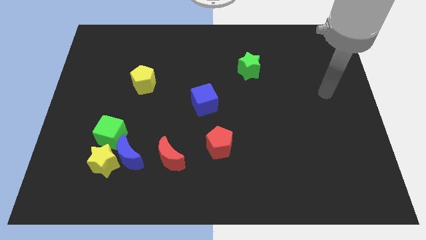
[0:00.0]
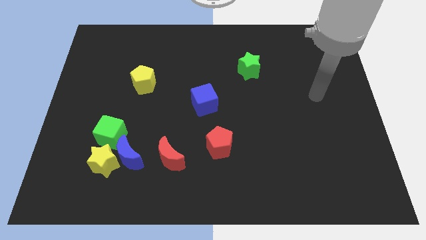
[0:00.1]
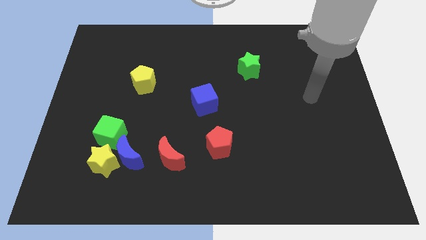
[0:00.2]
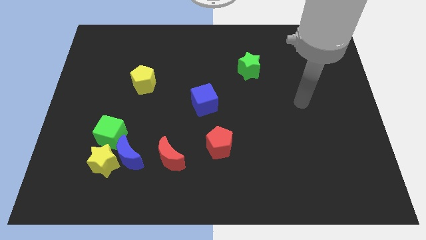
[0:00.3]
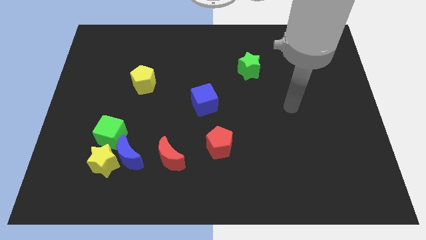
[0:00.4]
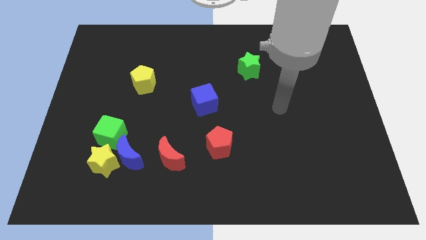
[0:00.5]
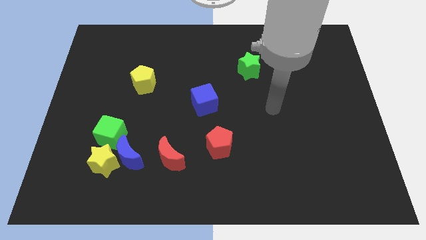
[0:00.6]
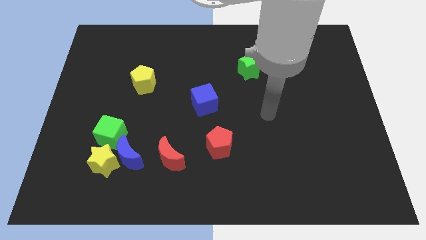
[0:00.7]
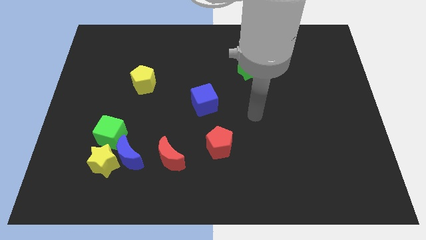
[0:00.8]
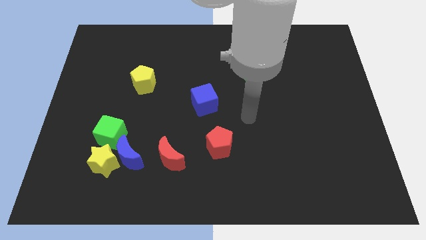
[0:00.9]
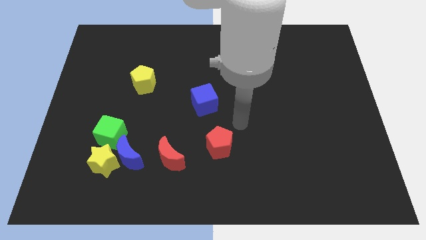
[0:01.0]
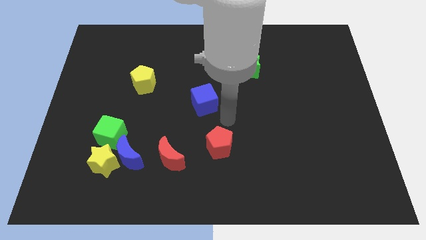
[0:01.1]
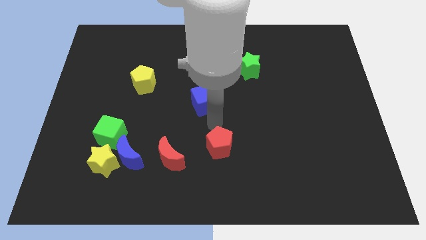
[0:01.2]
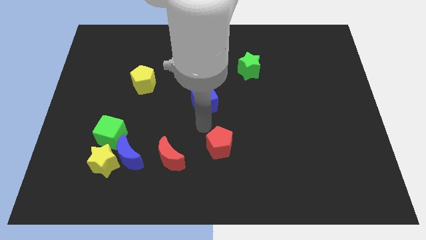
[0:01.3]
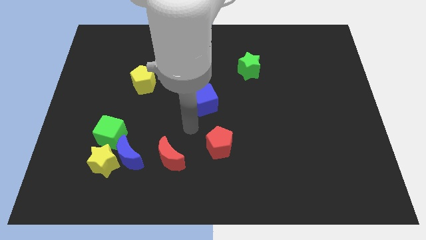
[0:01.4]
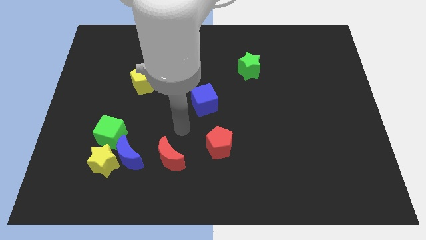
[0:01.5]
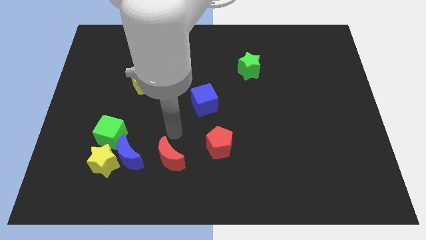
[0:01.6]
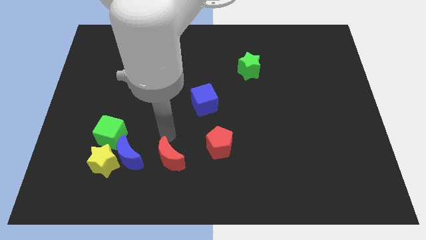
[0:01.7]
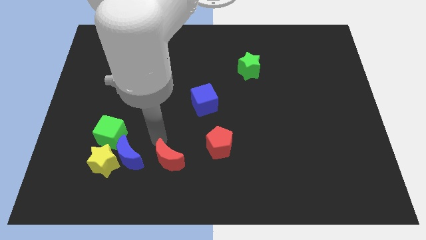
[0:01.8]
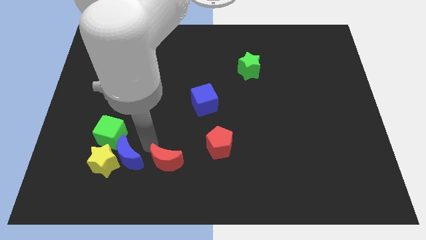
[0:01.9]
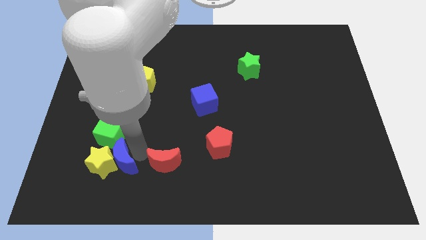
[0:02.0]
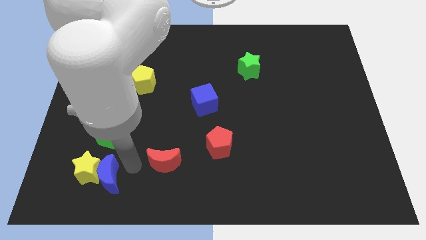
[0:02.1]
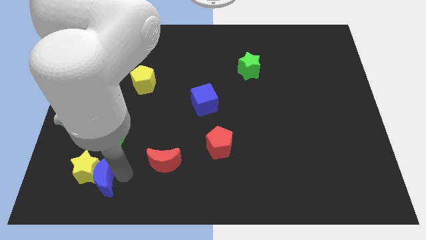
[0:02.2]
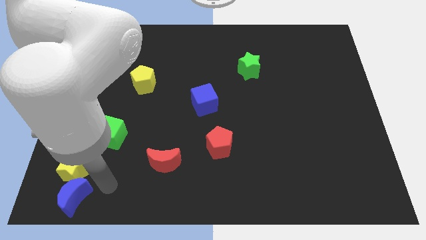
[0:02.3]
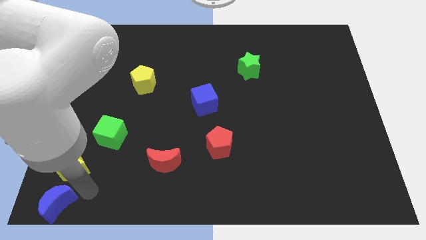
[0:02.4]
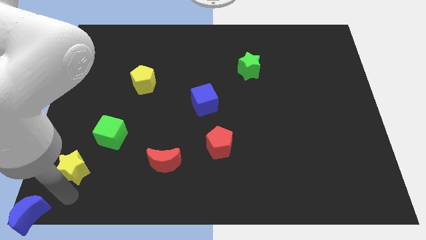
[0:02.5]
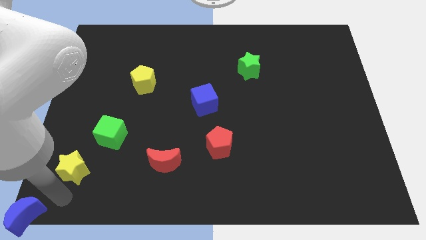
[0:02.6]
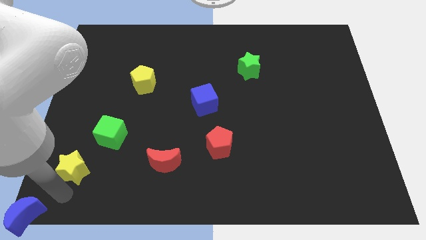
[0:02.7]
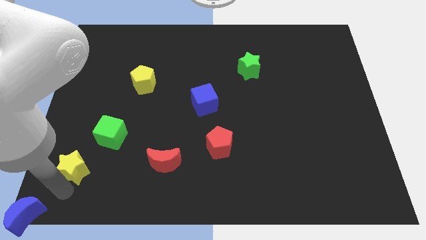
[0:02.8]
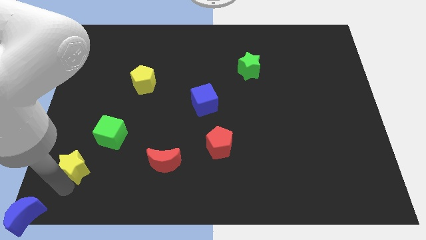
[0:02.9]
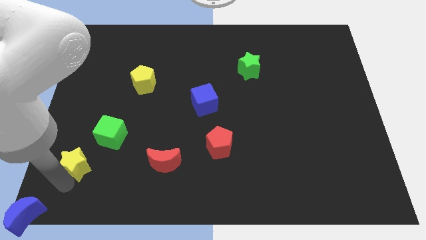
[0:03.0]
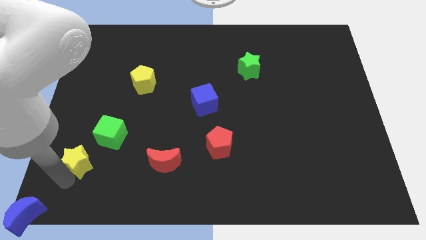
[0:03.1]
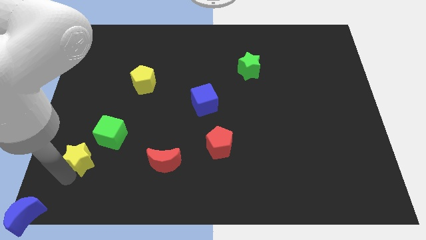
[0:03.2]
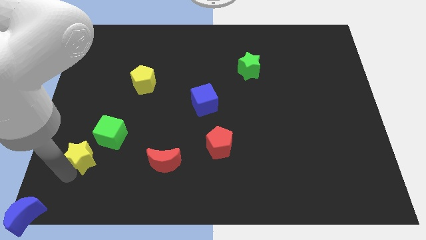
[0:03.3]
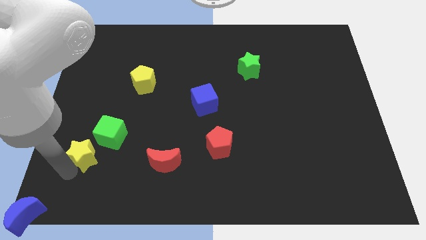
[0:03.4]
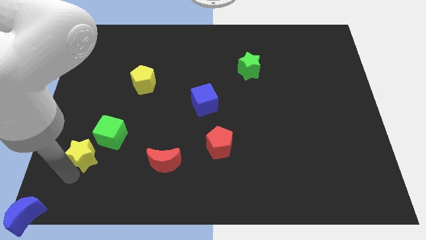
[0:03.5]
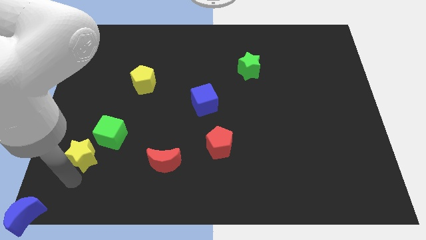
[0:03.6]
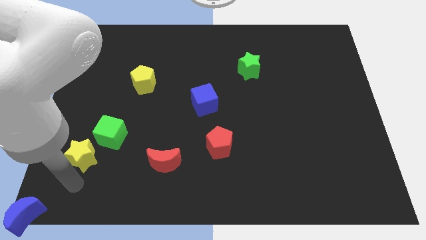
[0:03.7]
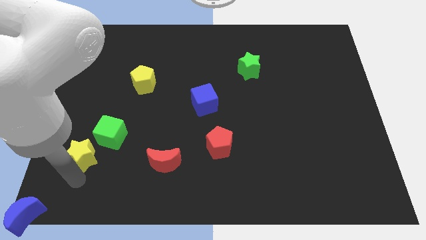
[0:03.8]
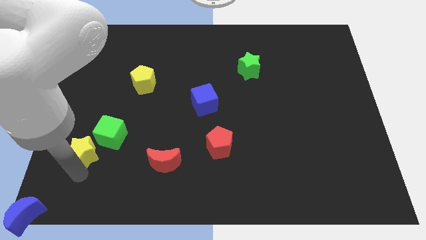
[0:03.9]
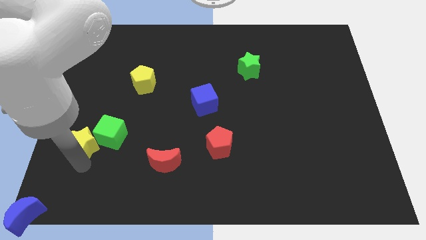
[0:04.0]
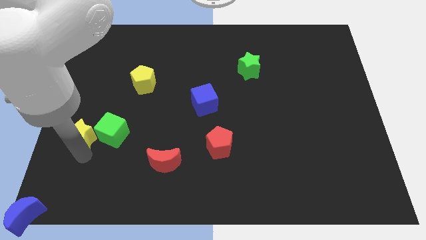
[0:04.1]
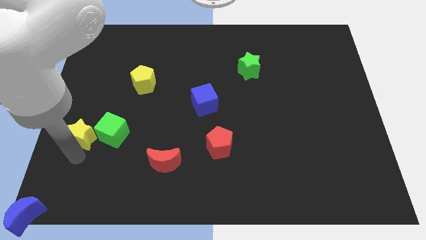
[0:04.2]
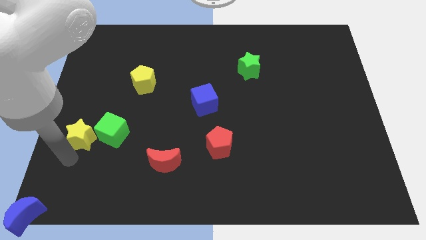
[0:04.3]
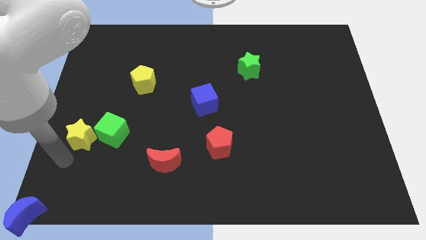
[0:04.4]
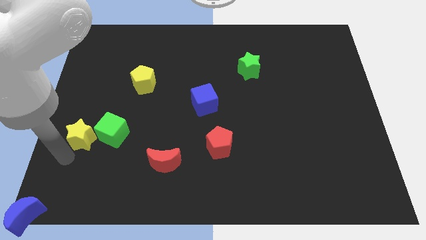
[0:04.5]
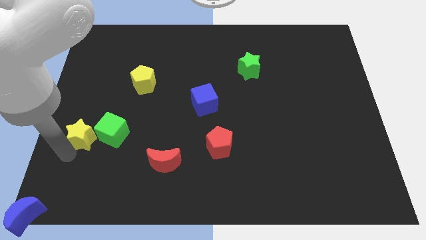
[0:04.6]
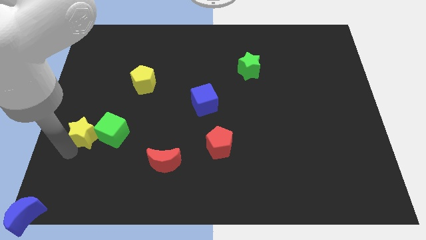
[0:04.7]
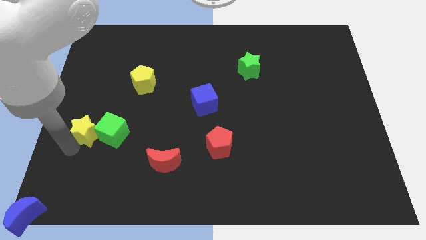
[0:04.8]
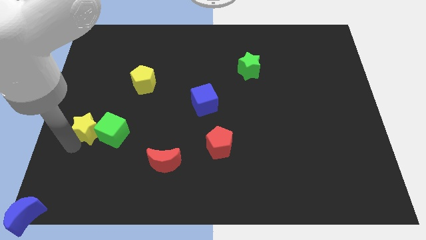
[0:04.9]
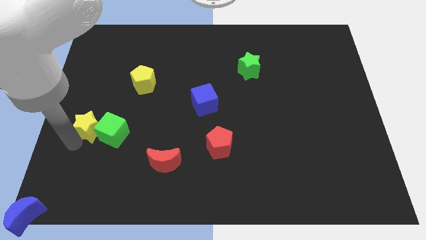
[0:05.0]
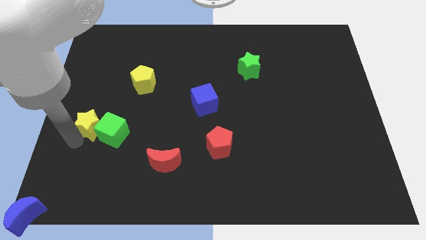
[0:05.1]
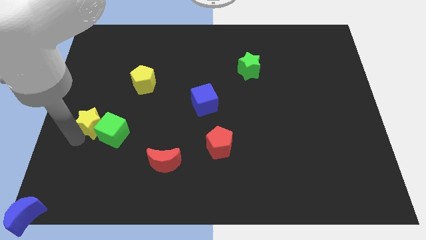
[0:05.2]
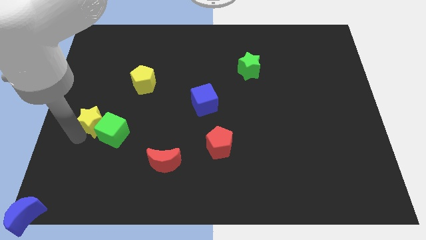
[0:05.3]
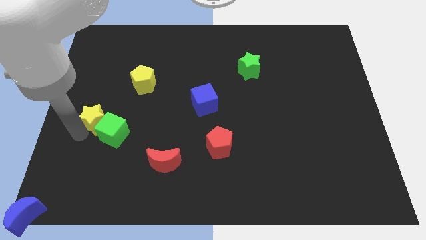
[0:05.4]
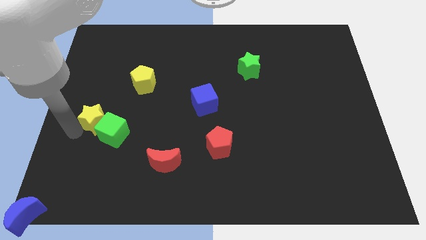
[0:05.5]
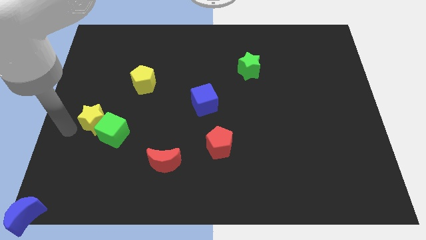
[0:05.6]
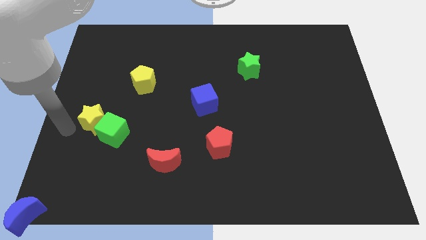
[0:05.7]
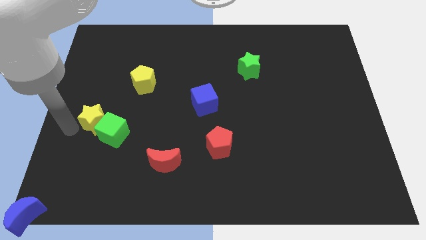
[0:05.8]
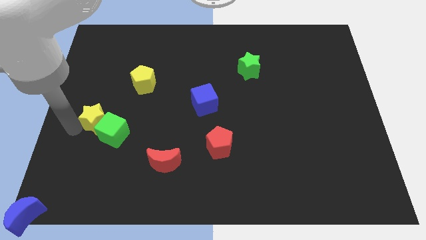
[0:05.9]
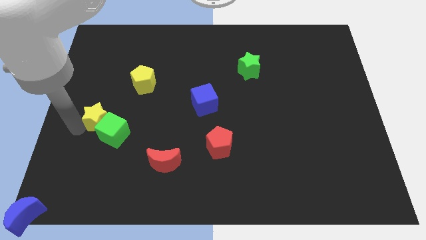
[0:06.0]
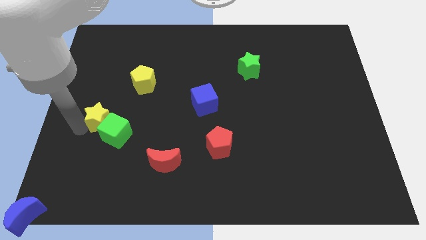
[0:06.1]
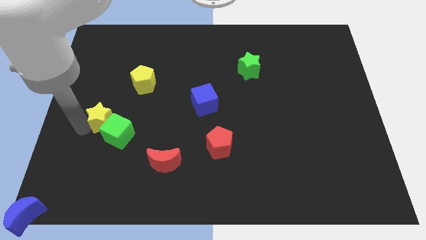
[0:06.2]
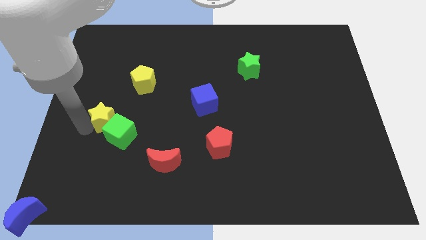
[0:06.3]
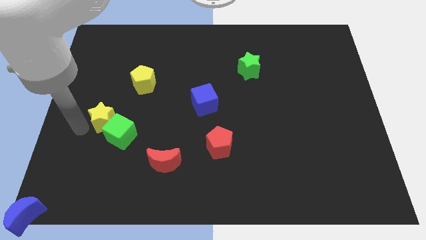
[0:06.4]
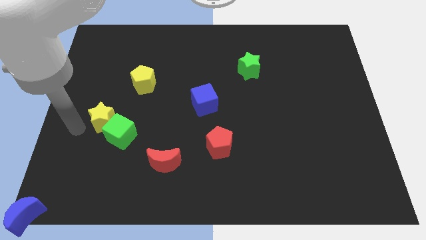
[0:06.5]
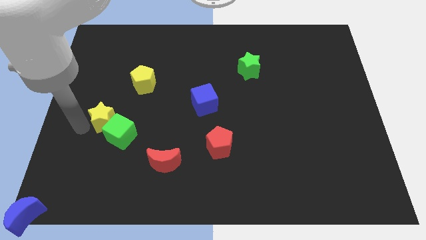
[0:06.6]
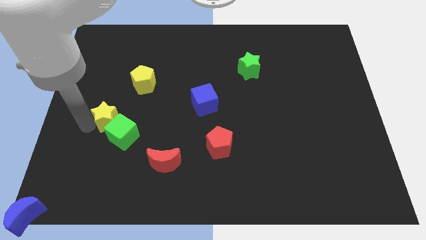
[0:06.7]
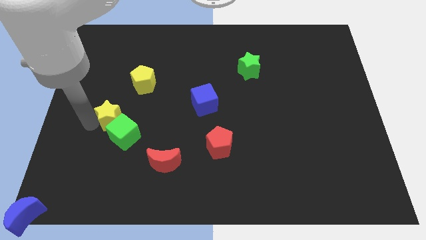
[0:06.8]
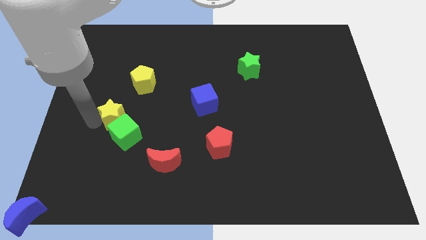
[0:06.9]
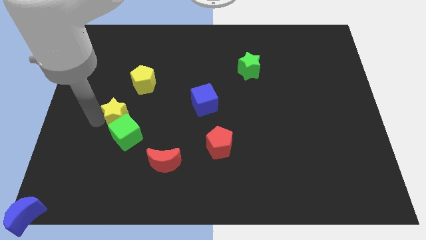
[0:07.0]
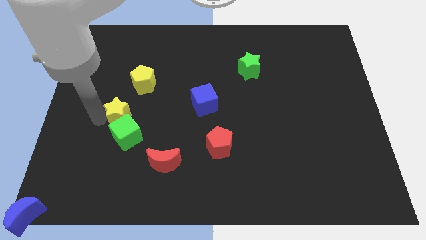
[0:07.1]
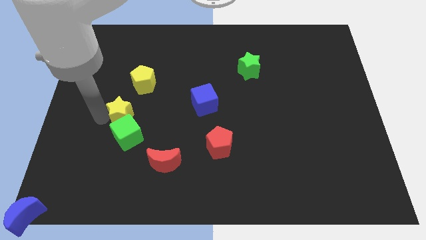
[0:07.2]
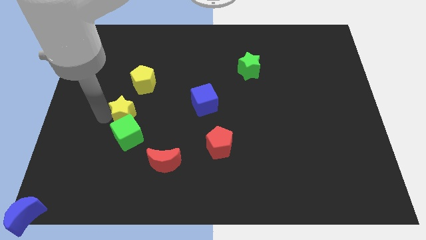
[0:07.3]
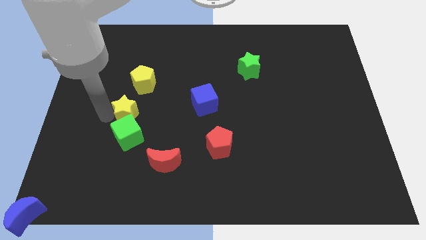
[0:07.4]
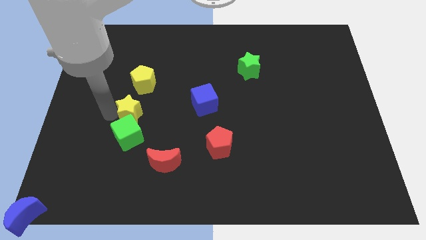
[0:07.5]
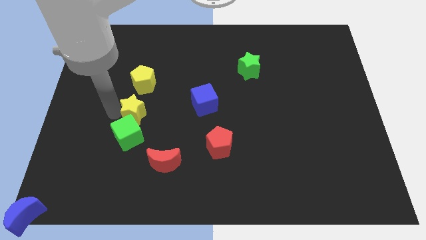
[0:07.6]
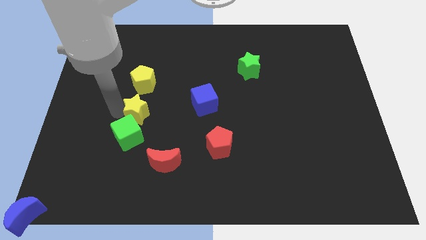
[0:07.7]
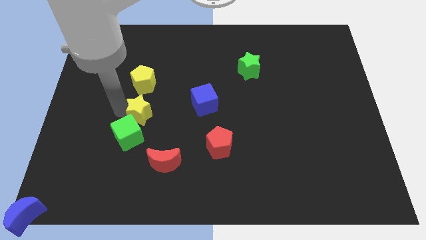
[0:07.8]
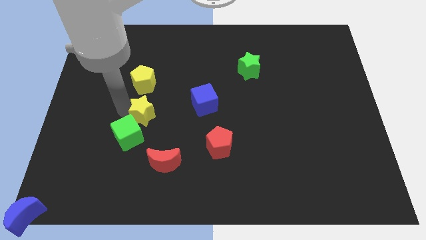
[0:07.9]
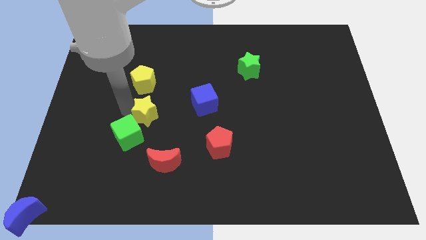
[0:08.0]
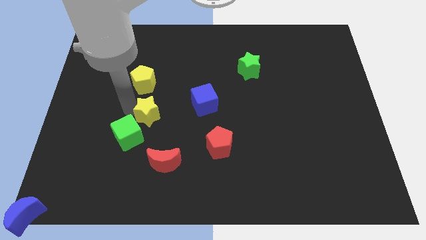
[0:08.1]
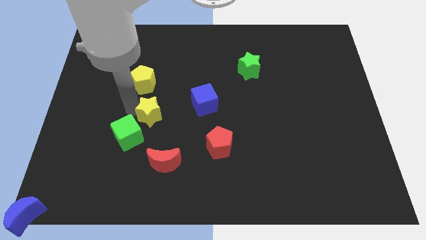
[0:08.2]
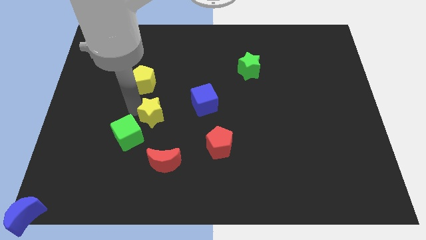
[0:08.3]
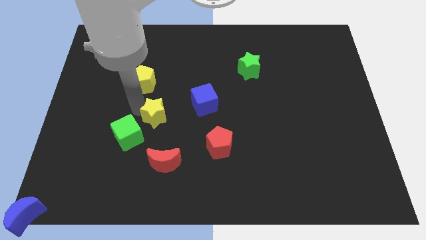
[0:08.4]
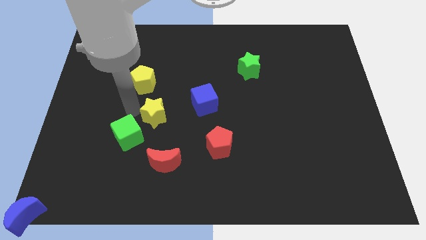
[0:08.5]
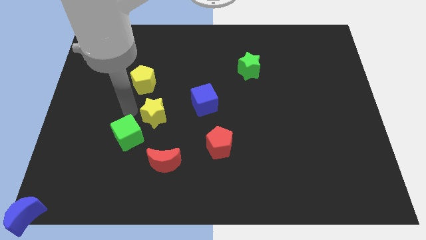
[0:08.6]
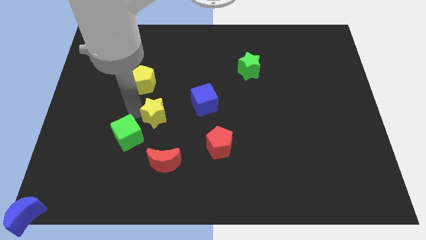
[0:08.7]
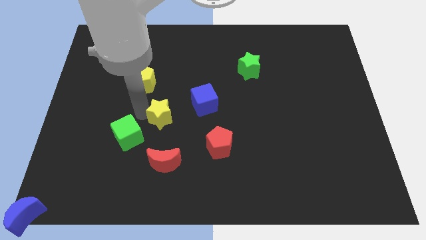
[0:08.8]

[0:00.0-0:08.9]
move the yellow star to the bottom left of the blue cube
